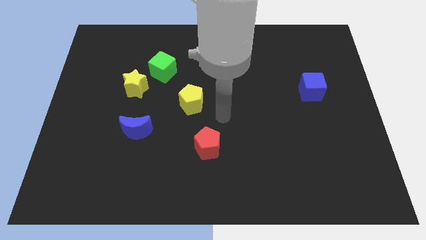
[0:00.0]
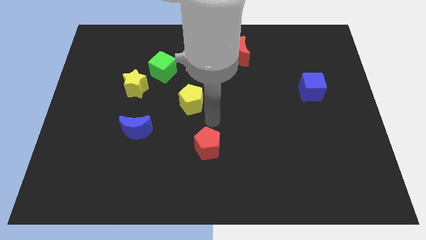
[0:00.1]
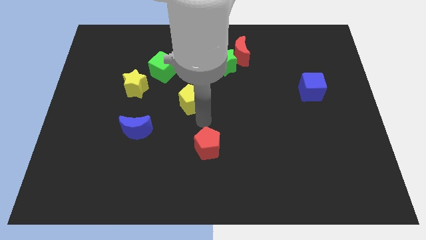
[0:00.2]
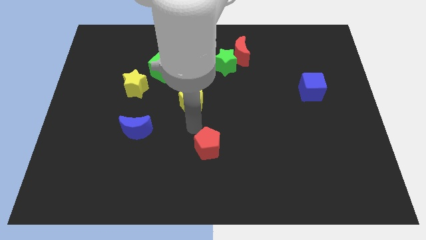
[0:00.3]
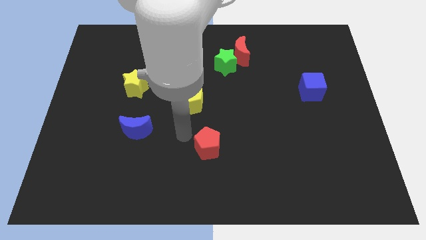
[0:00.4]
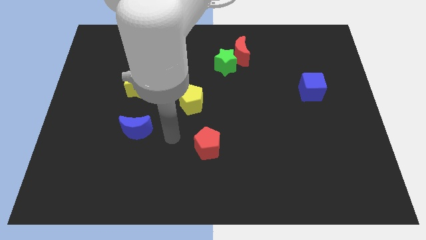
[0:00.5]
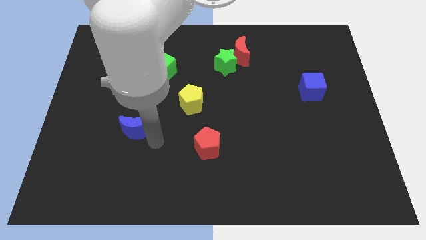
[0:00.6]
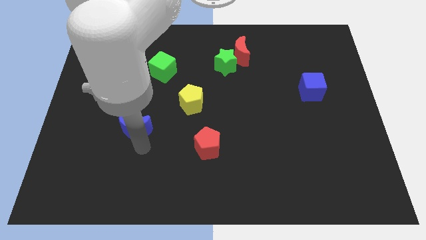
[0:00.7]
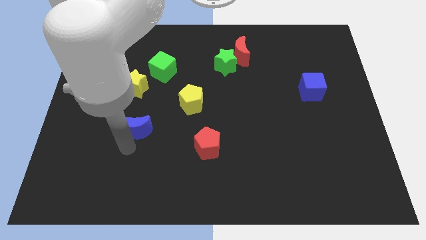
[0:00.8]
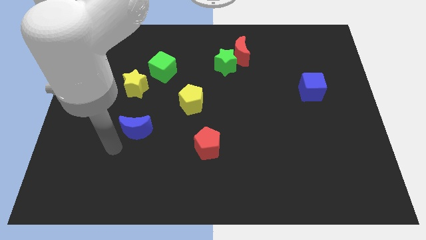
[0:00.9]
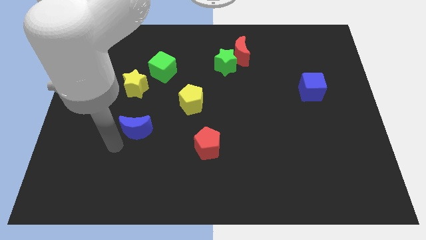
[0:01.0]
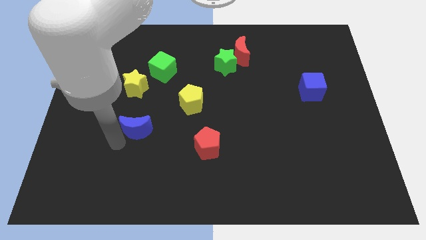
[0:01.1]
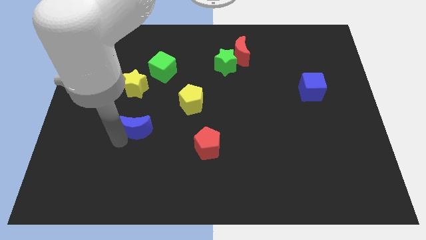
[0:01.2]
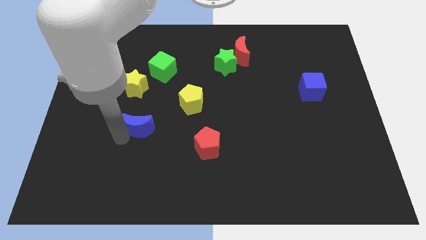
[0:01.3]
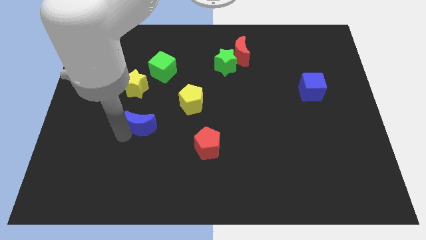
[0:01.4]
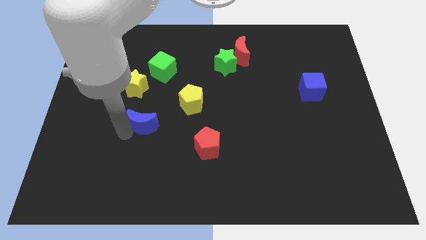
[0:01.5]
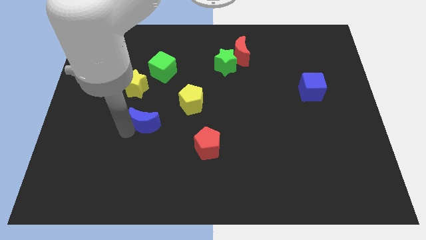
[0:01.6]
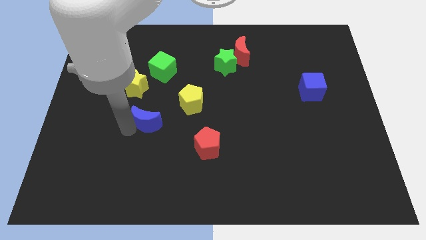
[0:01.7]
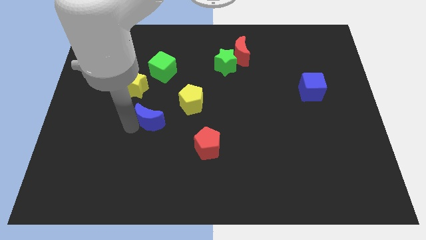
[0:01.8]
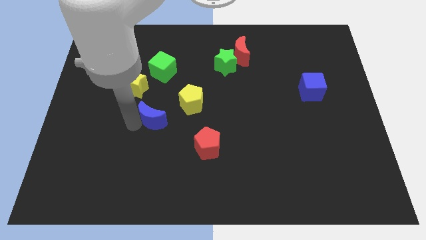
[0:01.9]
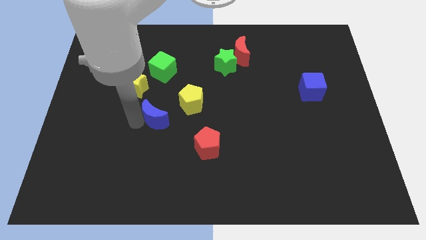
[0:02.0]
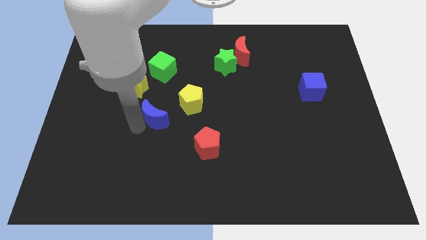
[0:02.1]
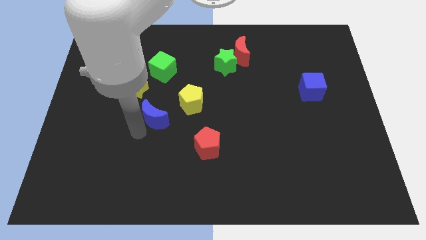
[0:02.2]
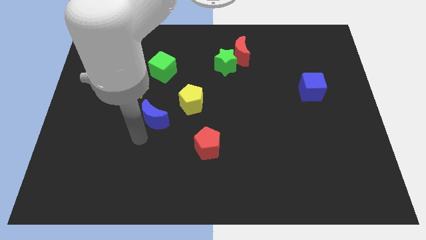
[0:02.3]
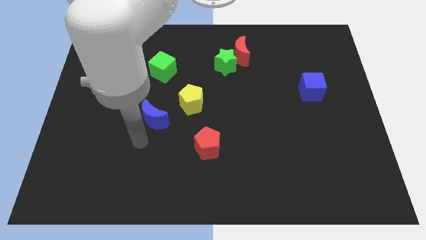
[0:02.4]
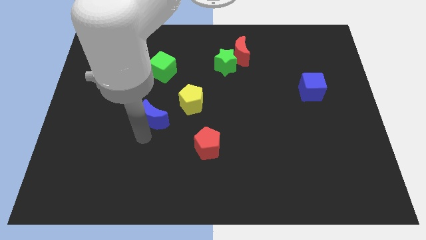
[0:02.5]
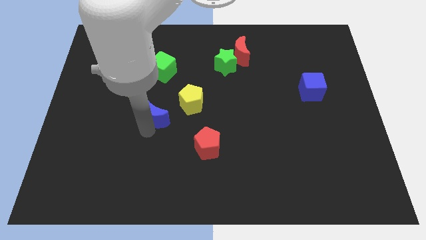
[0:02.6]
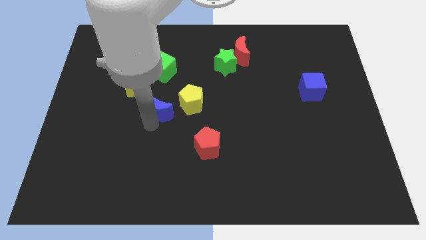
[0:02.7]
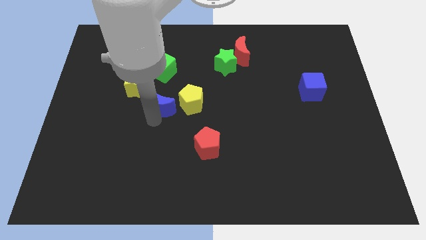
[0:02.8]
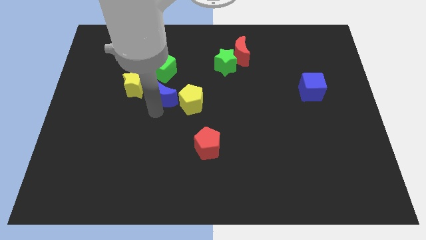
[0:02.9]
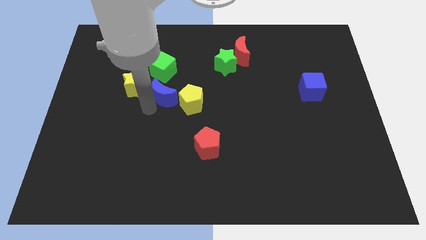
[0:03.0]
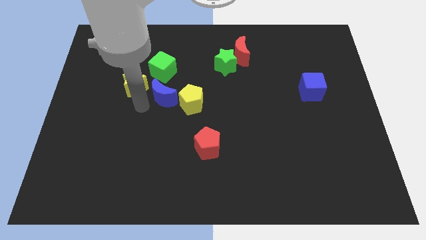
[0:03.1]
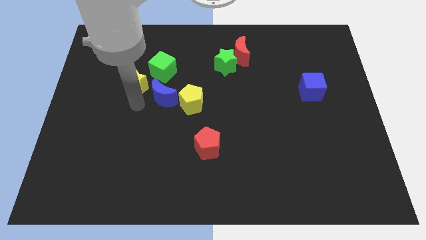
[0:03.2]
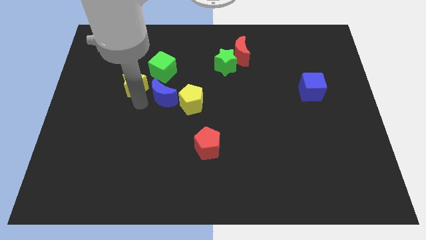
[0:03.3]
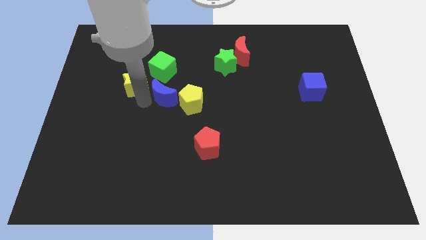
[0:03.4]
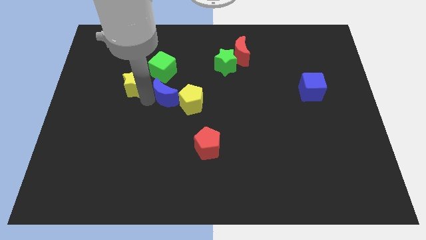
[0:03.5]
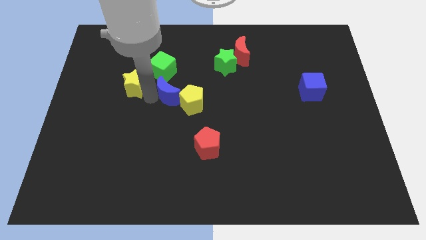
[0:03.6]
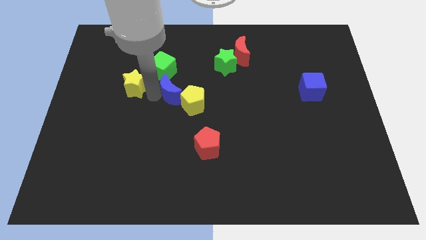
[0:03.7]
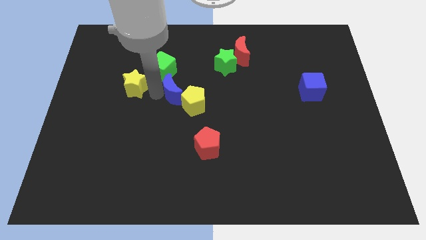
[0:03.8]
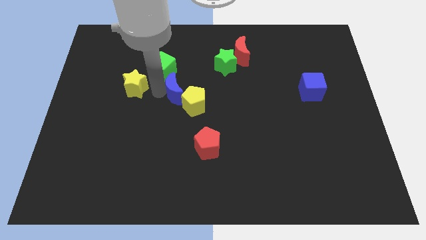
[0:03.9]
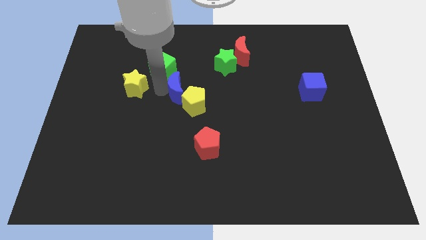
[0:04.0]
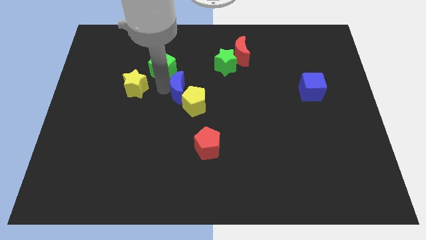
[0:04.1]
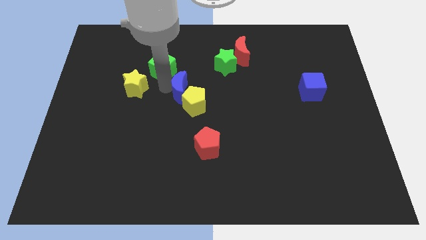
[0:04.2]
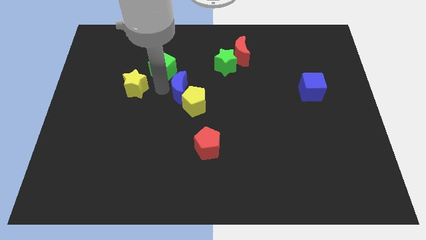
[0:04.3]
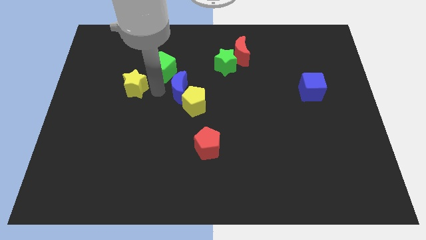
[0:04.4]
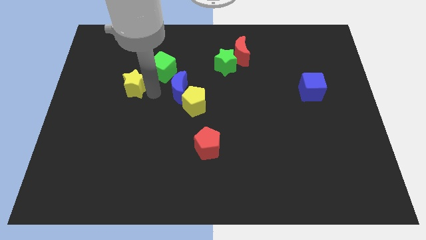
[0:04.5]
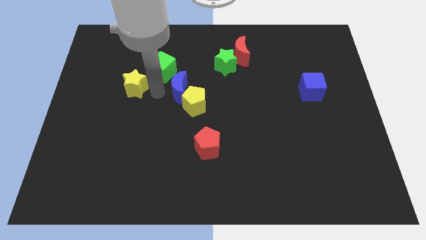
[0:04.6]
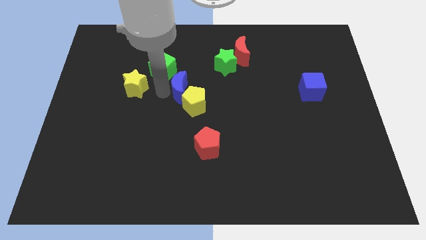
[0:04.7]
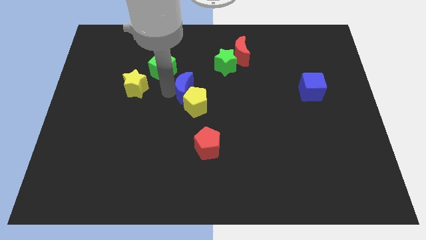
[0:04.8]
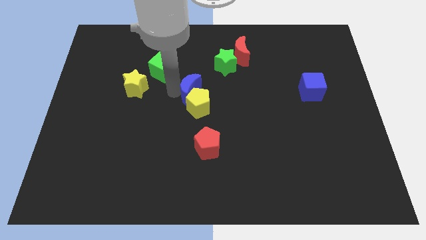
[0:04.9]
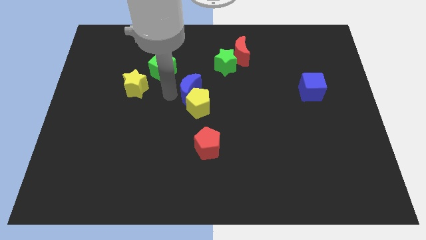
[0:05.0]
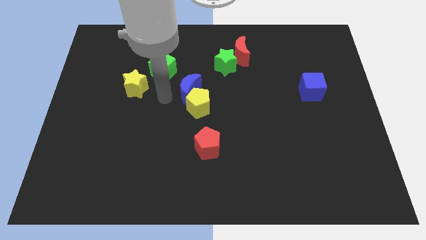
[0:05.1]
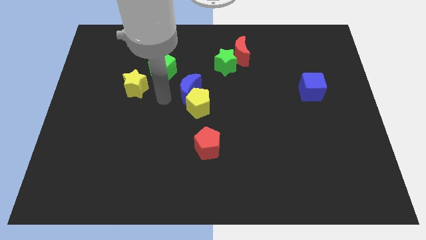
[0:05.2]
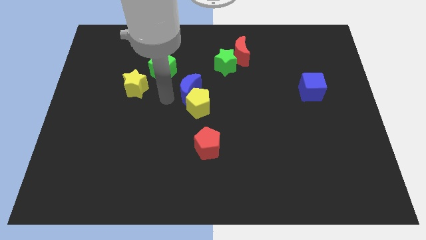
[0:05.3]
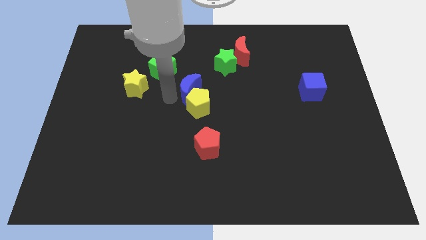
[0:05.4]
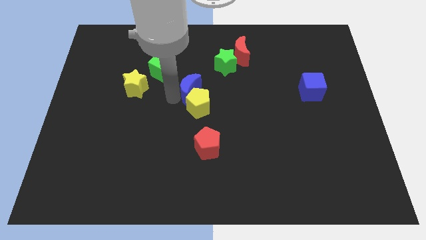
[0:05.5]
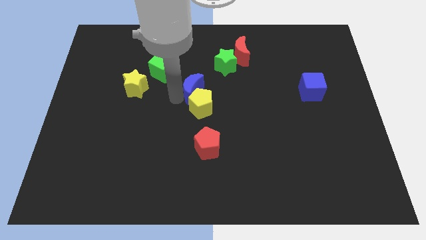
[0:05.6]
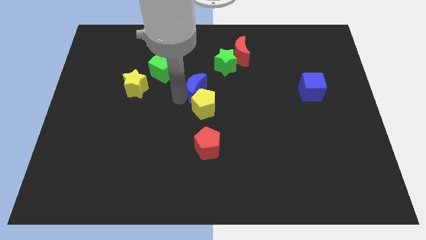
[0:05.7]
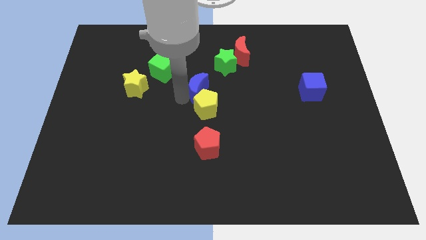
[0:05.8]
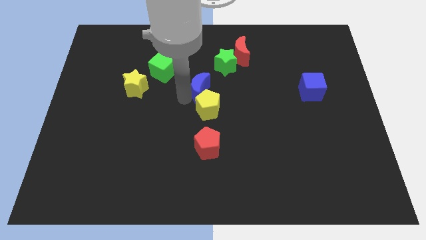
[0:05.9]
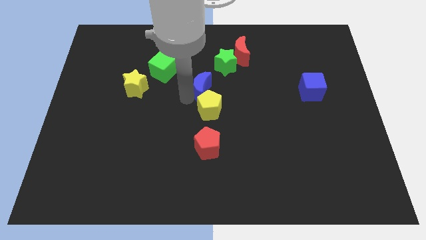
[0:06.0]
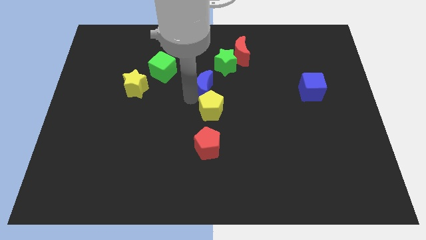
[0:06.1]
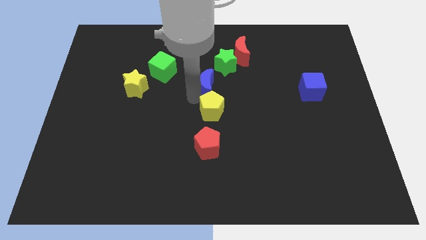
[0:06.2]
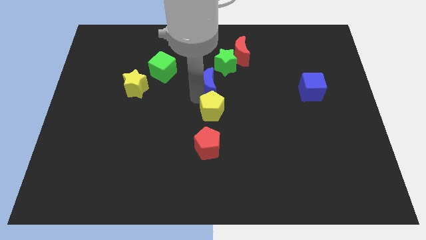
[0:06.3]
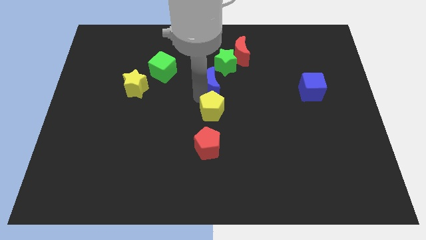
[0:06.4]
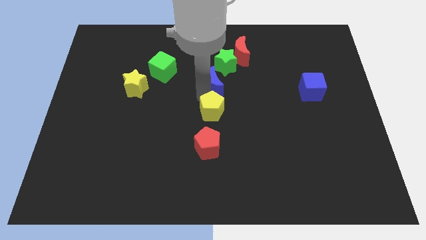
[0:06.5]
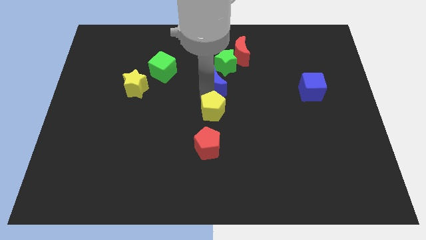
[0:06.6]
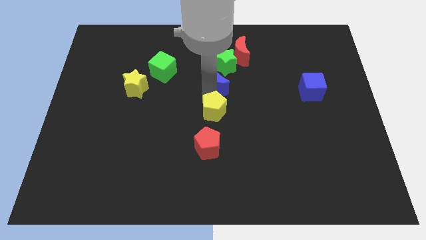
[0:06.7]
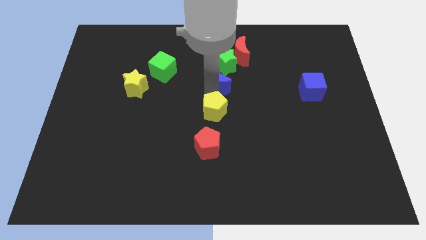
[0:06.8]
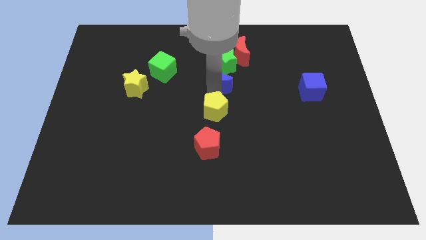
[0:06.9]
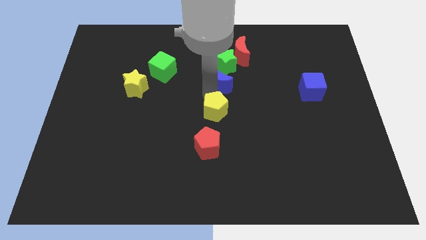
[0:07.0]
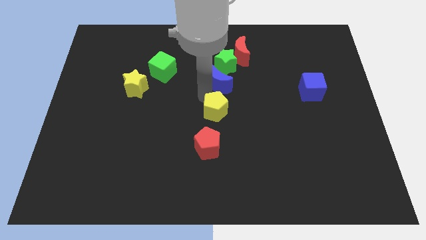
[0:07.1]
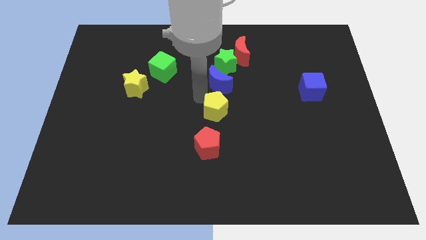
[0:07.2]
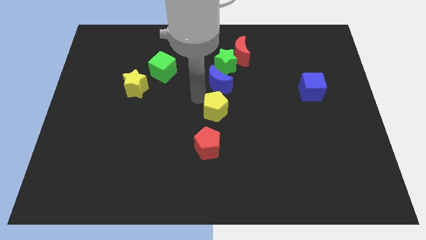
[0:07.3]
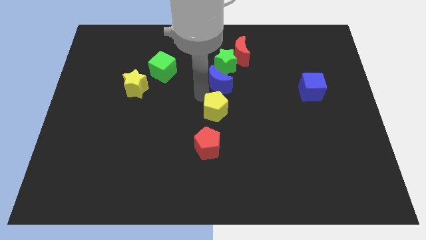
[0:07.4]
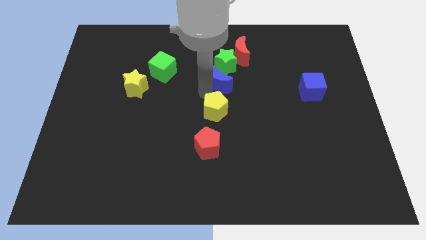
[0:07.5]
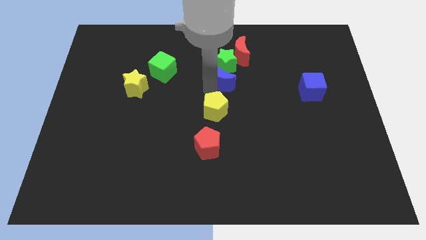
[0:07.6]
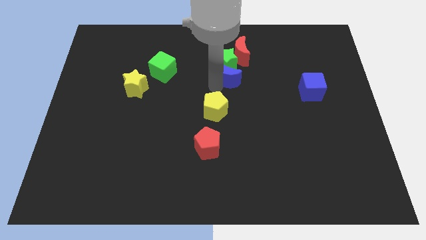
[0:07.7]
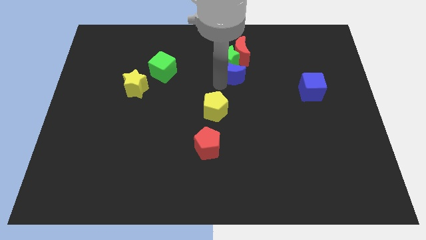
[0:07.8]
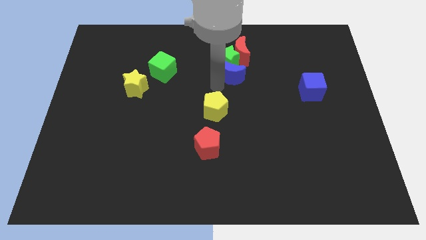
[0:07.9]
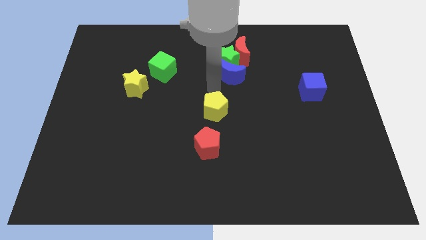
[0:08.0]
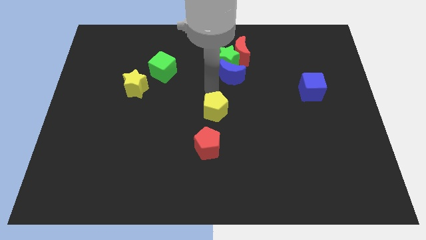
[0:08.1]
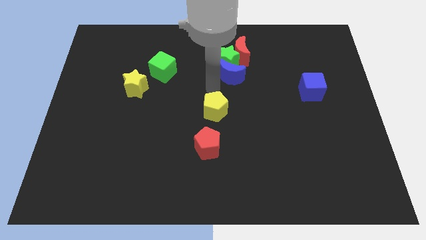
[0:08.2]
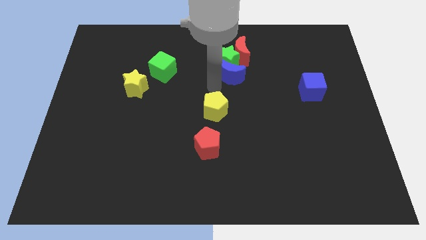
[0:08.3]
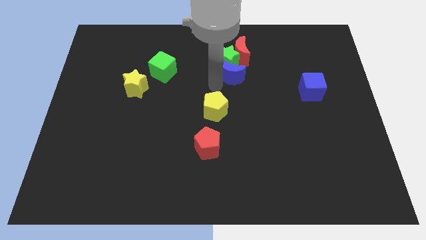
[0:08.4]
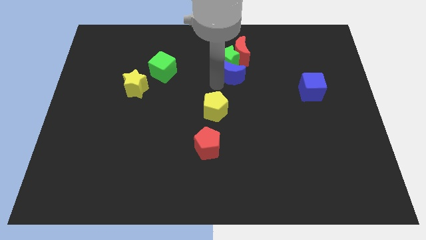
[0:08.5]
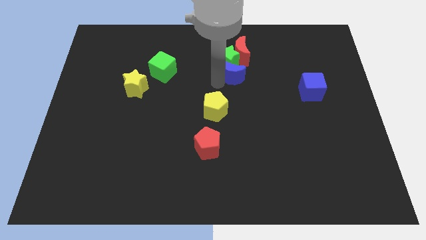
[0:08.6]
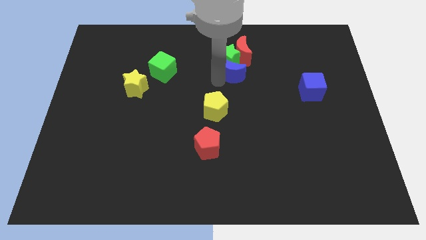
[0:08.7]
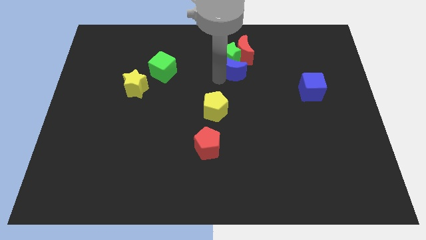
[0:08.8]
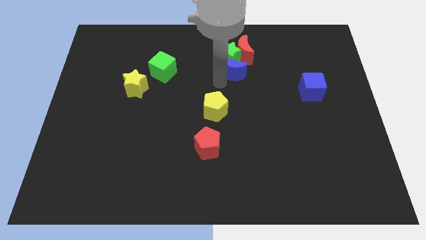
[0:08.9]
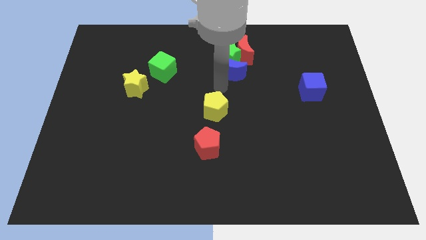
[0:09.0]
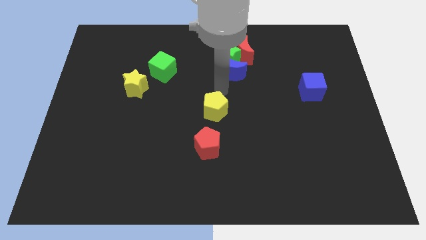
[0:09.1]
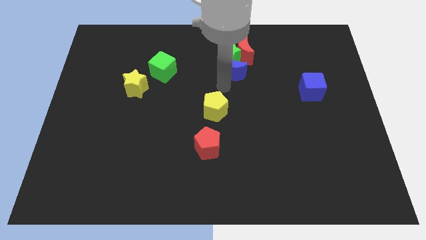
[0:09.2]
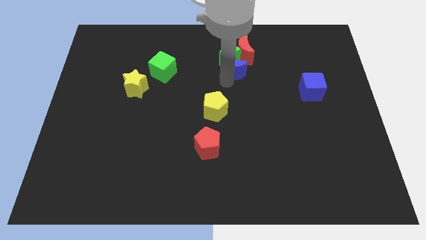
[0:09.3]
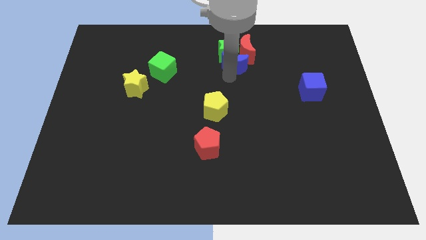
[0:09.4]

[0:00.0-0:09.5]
slide the blue moon towards the red moon
